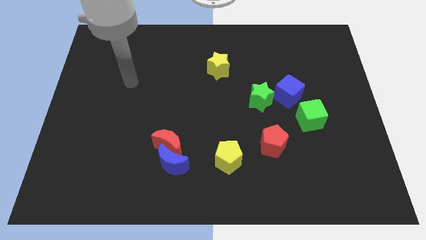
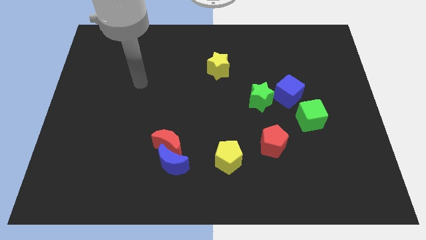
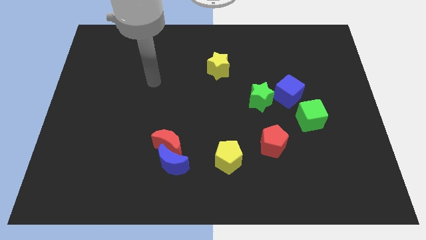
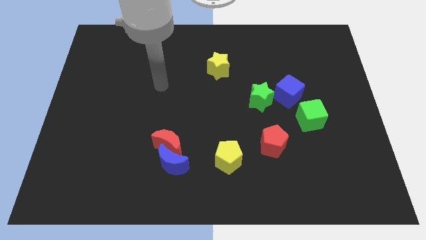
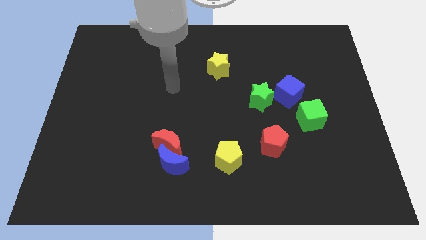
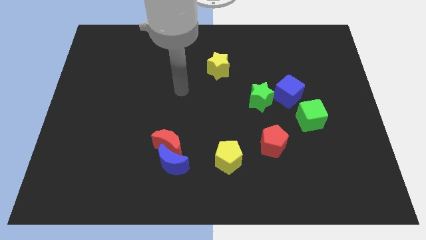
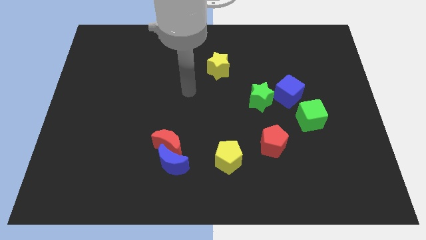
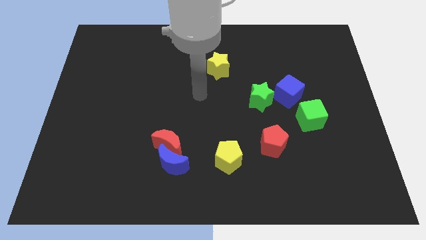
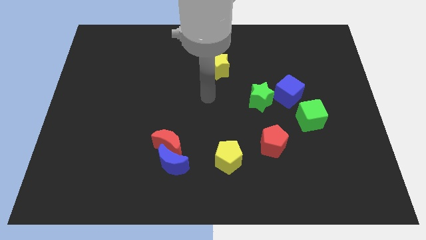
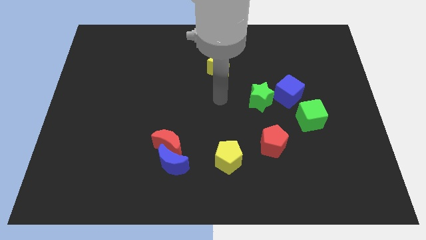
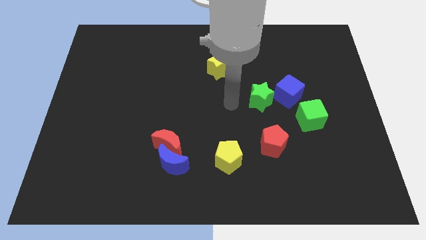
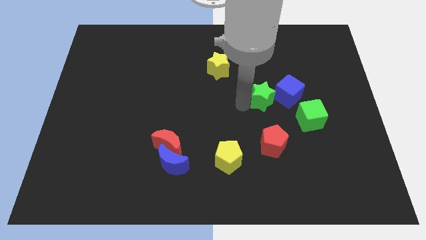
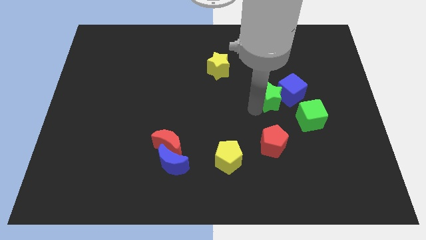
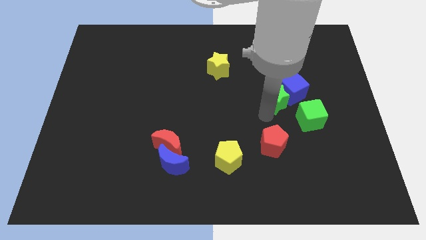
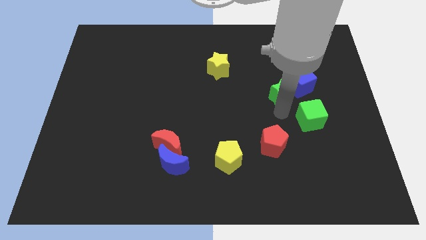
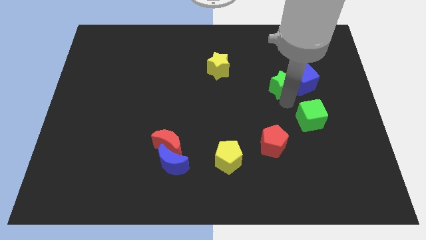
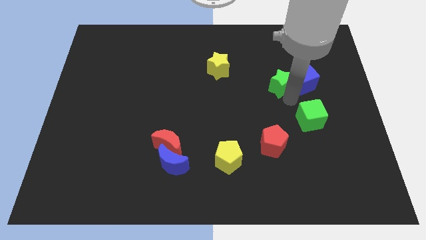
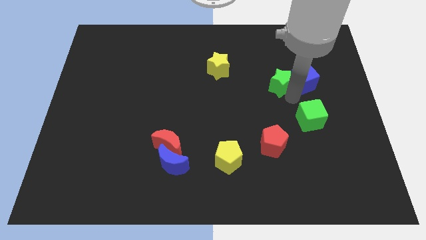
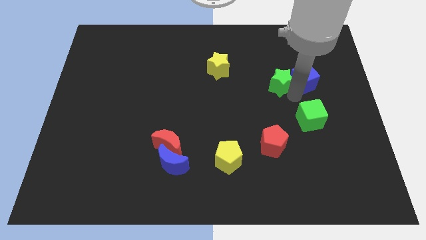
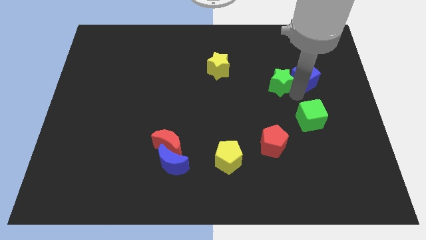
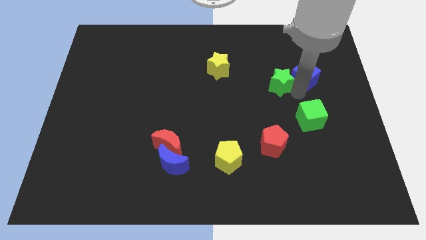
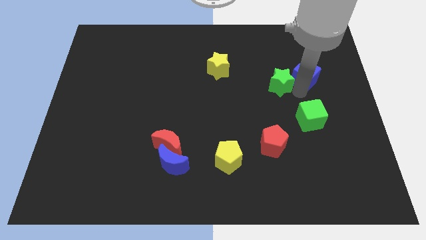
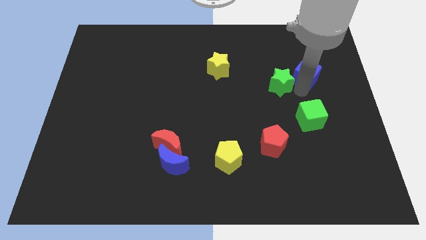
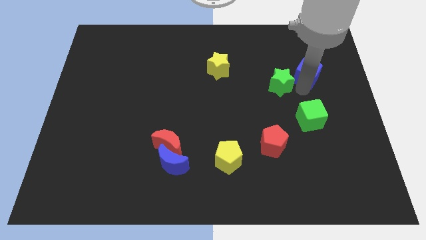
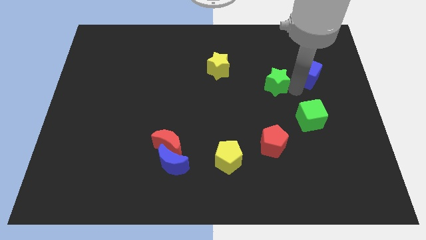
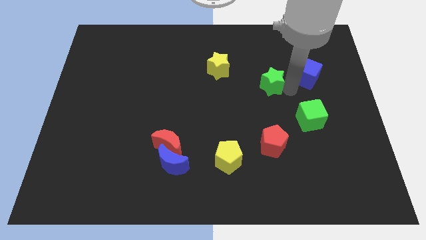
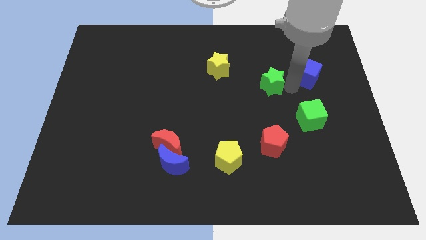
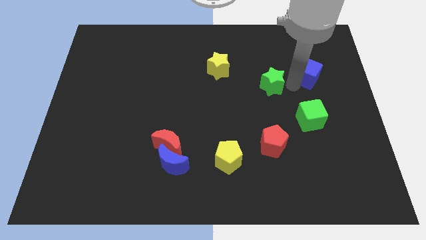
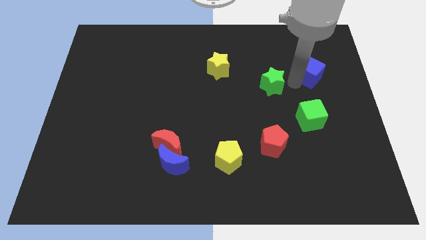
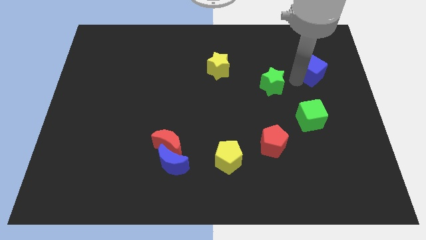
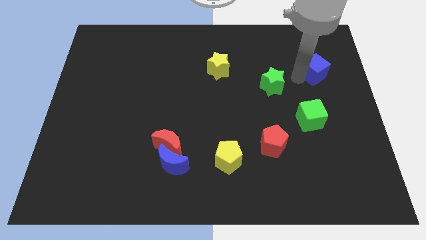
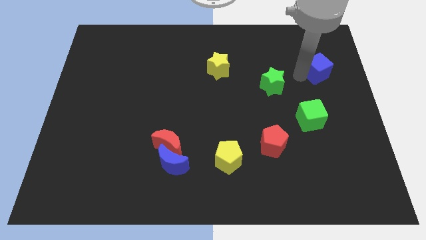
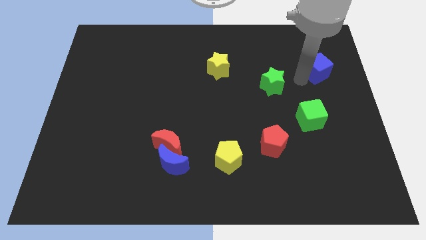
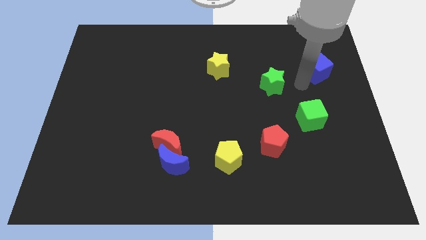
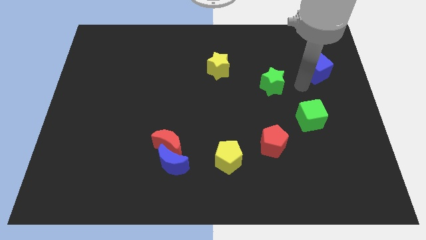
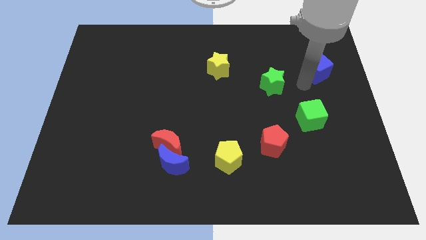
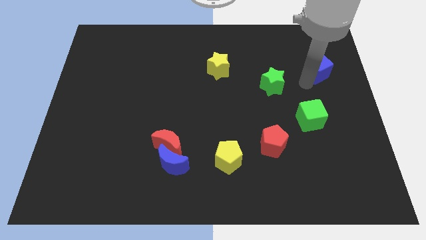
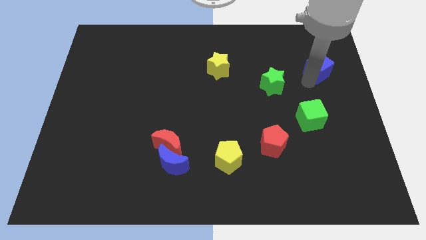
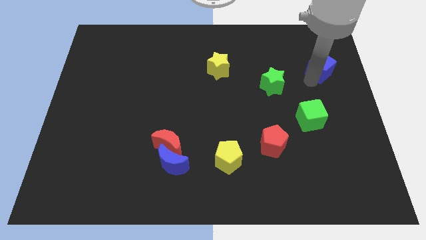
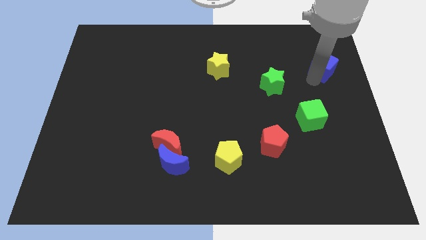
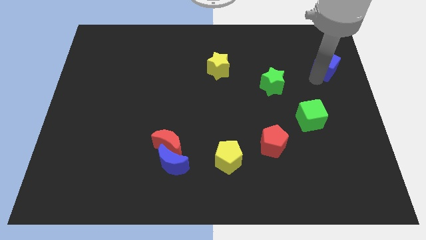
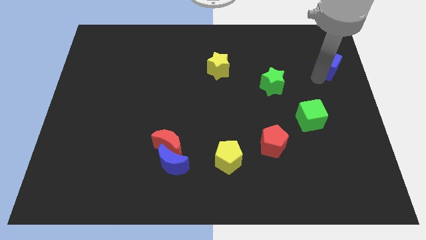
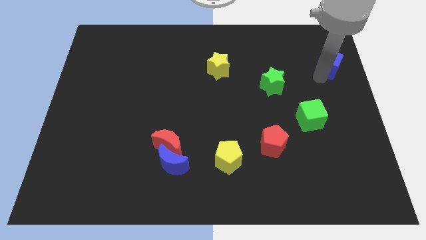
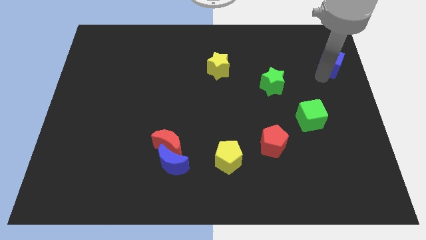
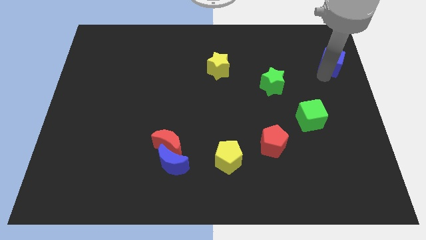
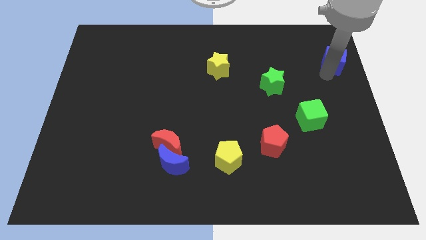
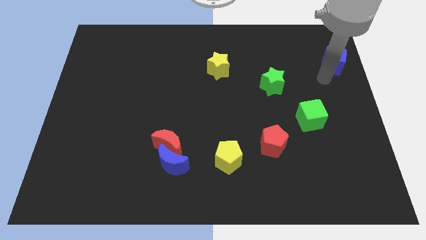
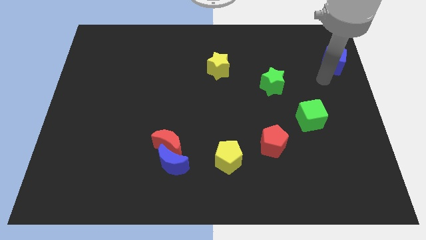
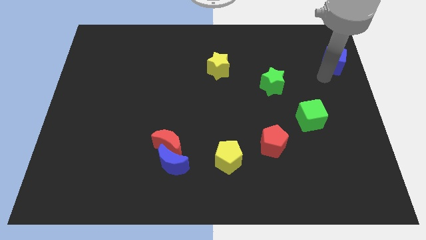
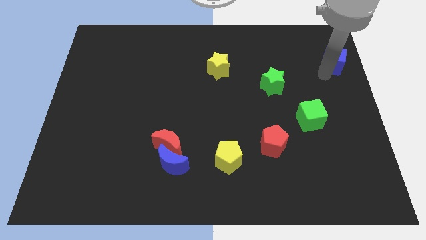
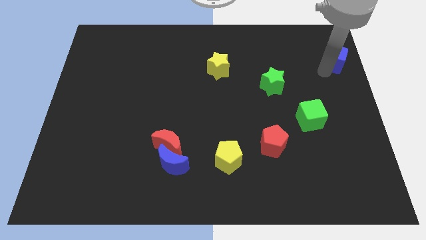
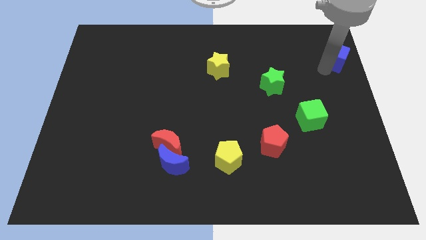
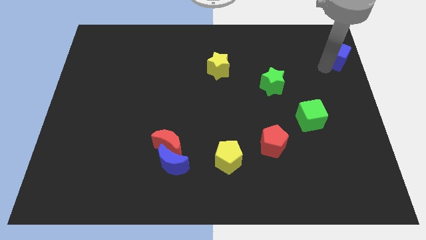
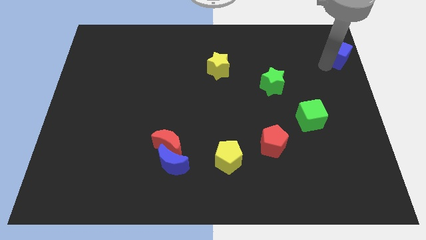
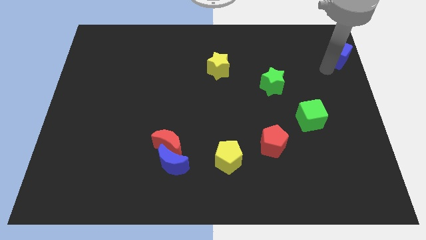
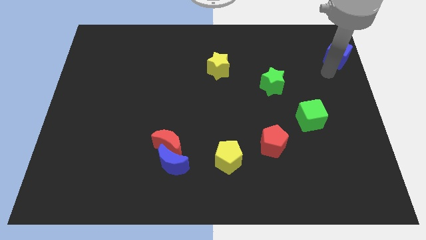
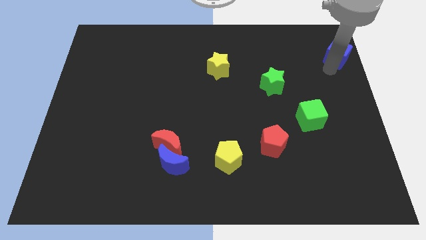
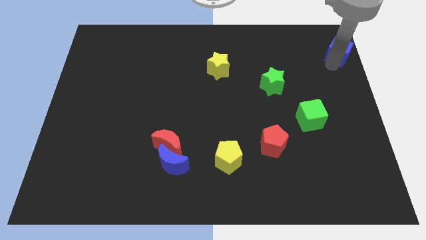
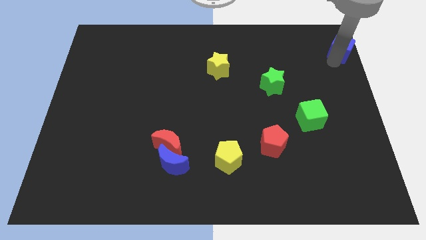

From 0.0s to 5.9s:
move the blue cube to the top right

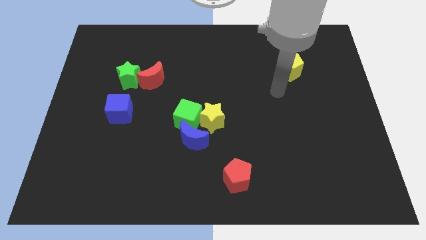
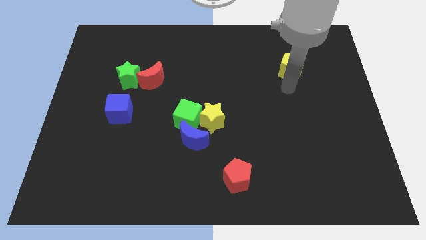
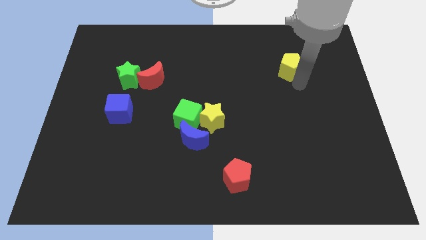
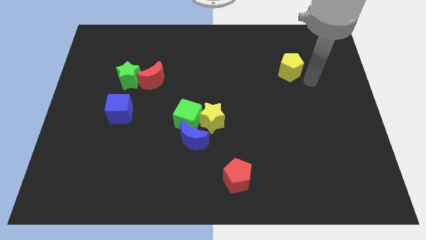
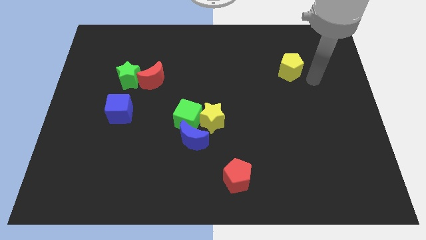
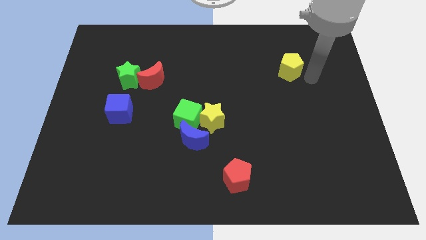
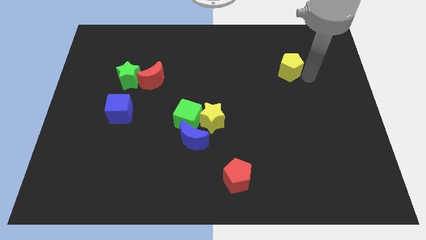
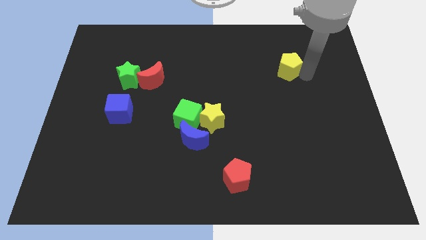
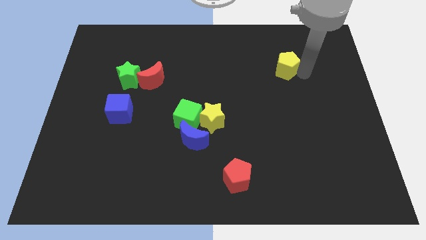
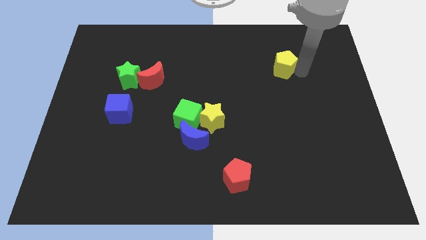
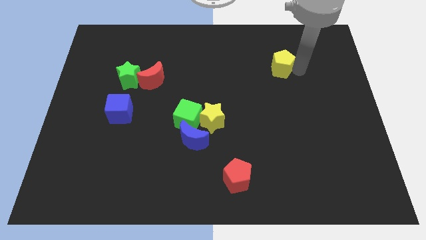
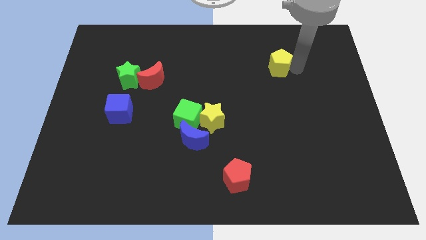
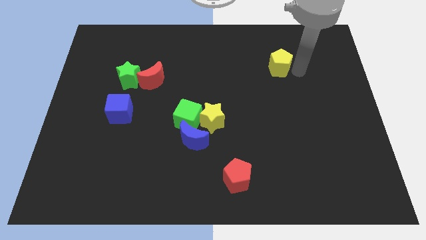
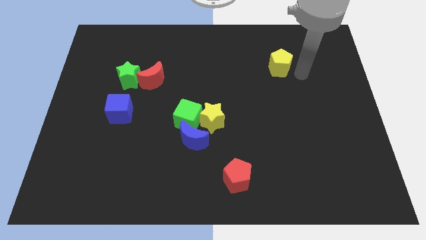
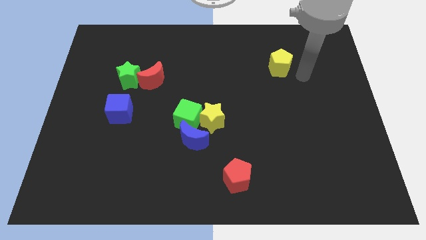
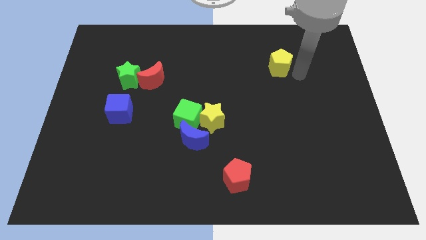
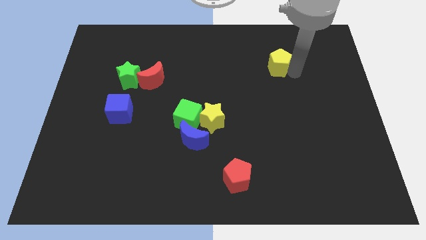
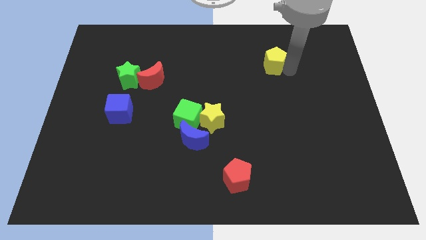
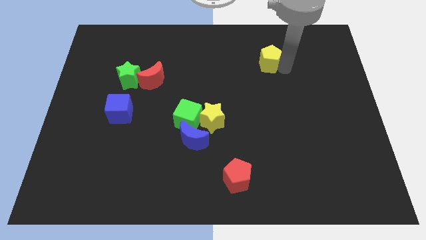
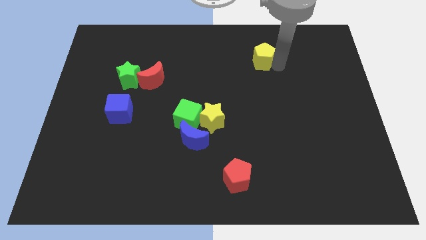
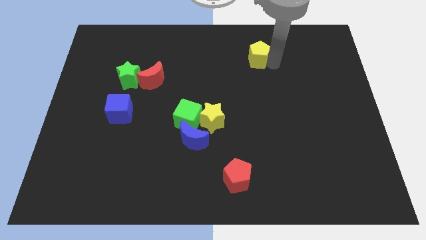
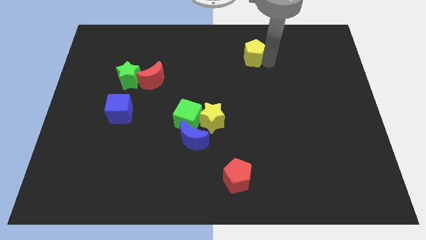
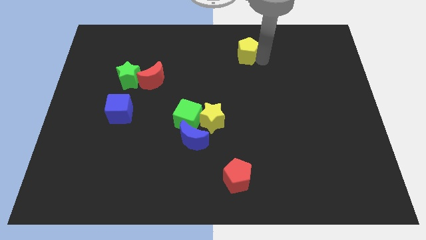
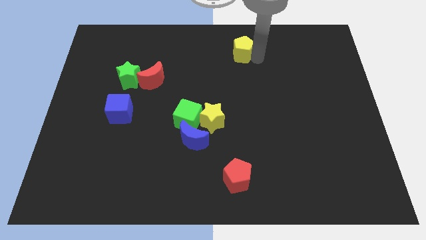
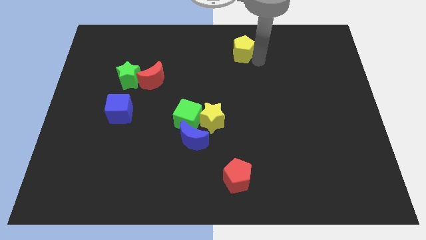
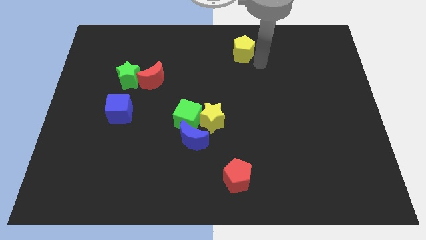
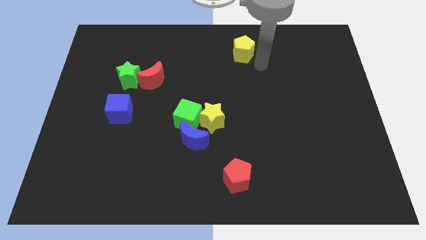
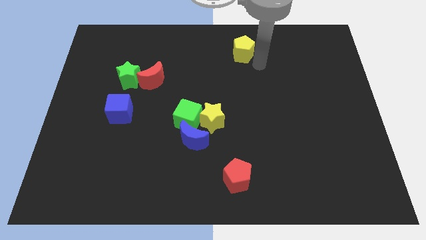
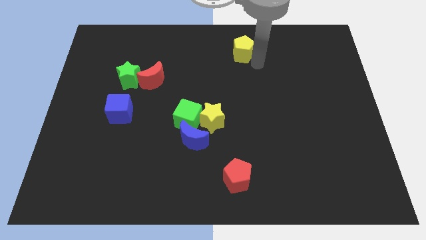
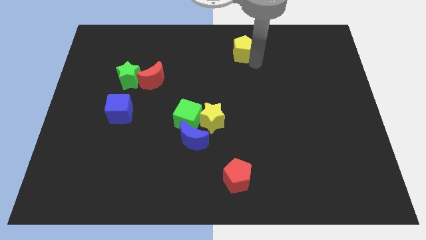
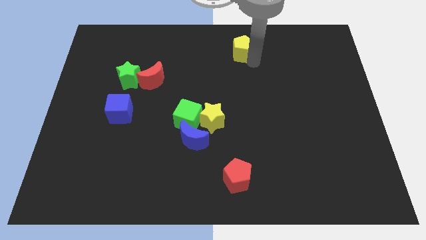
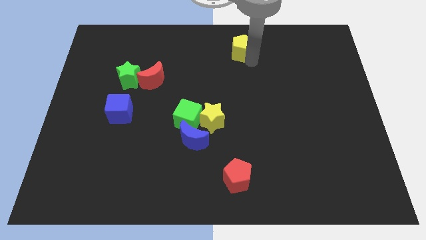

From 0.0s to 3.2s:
move the yellow pentagon to the top
